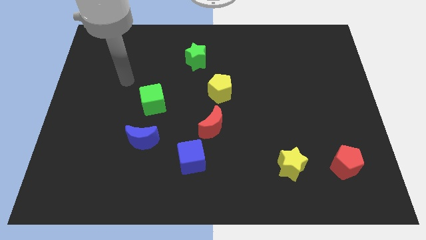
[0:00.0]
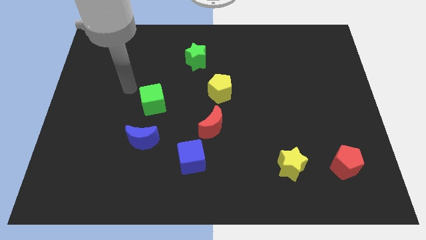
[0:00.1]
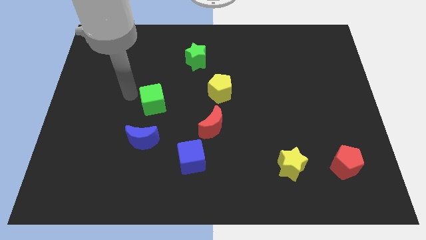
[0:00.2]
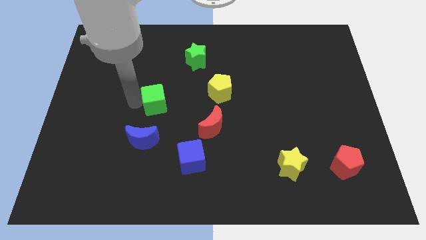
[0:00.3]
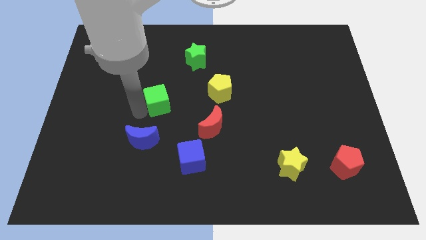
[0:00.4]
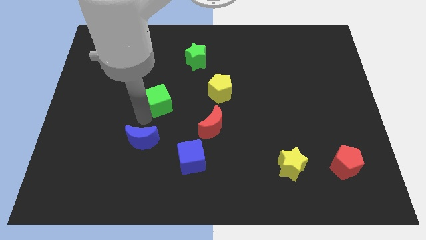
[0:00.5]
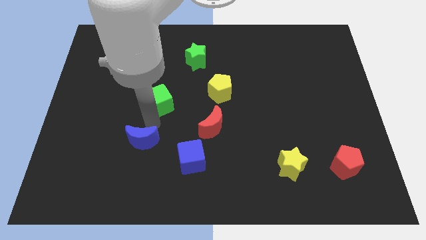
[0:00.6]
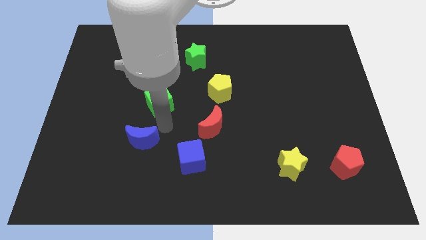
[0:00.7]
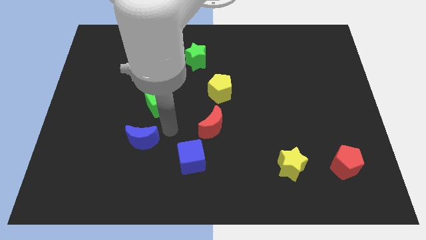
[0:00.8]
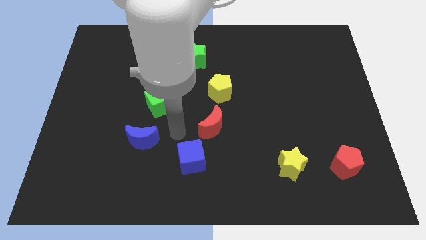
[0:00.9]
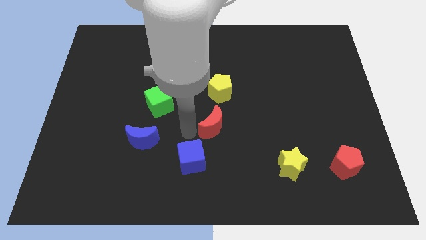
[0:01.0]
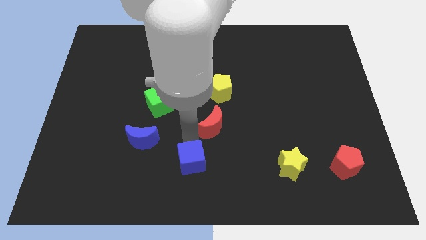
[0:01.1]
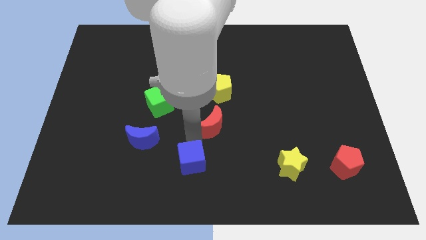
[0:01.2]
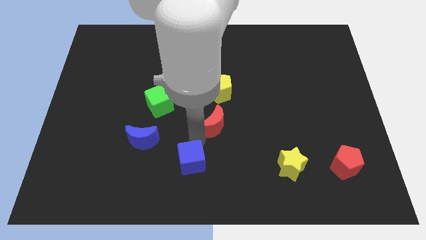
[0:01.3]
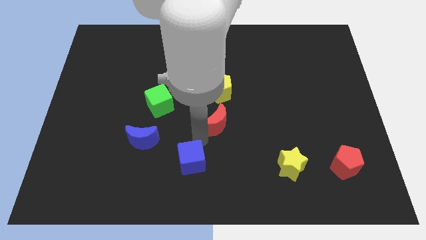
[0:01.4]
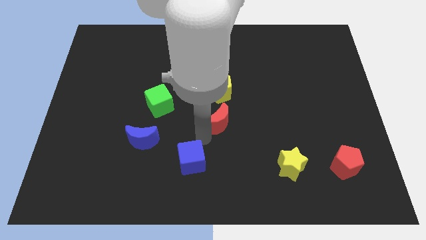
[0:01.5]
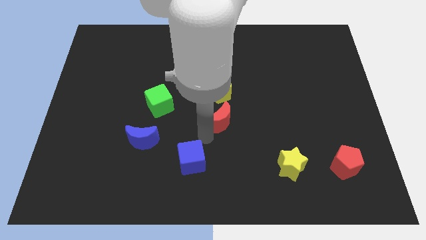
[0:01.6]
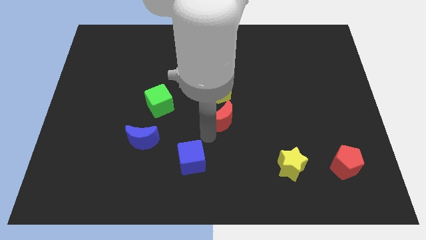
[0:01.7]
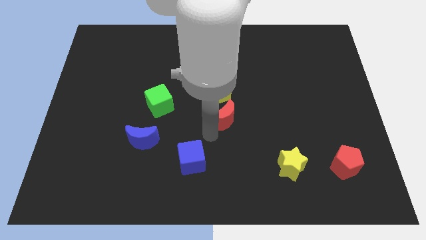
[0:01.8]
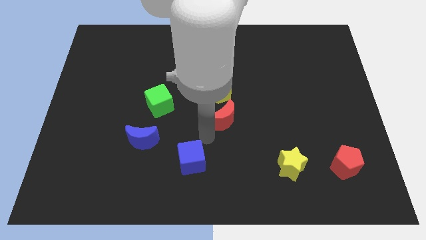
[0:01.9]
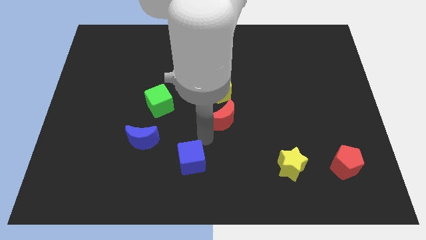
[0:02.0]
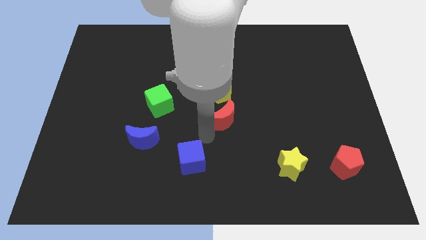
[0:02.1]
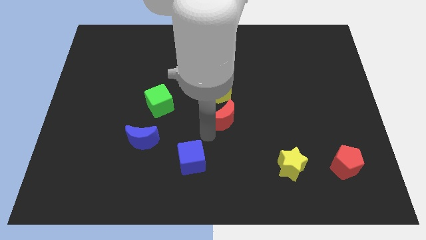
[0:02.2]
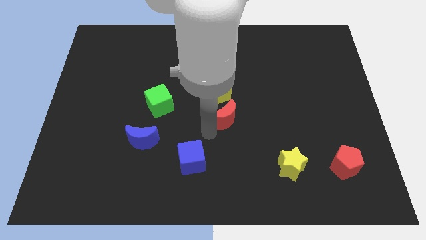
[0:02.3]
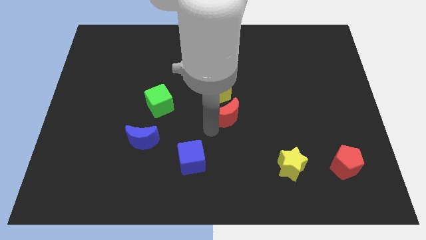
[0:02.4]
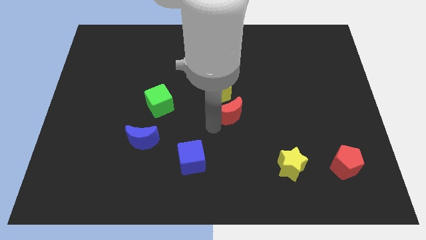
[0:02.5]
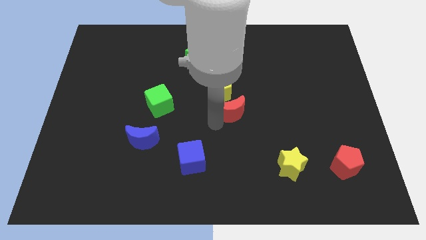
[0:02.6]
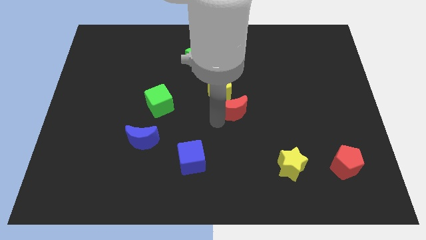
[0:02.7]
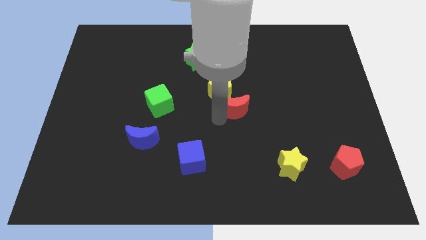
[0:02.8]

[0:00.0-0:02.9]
slide the red moon a little upwards and to the right diagonally

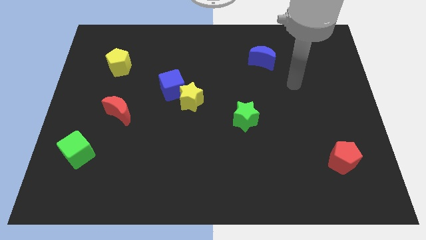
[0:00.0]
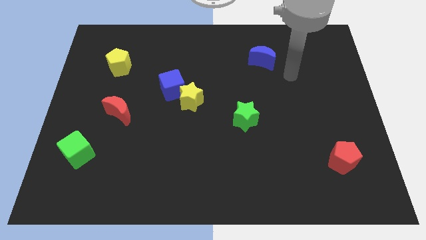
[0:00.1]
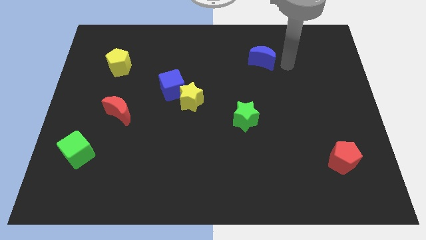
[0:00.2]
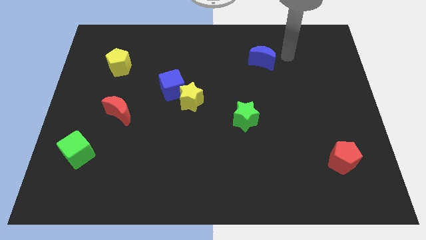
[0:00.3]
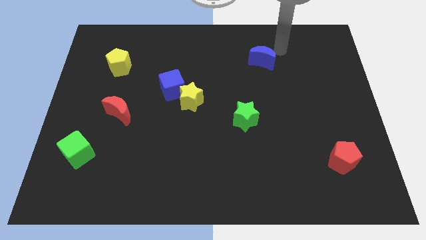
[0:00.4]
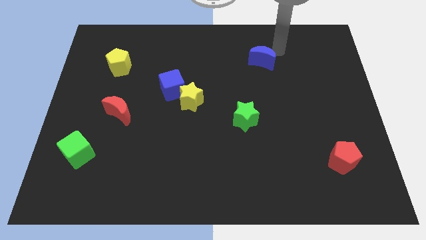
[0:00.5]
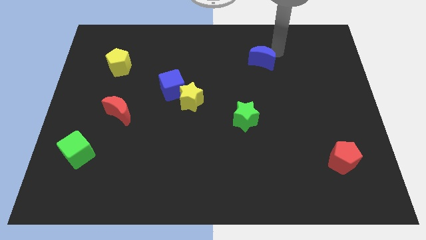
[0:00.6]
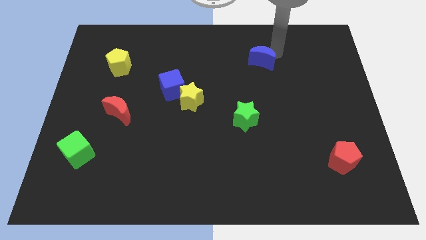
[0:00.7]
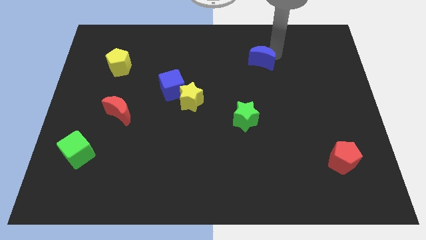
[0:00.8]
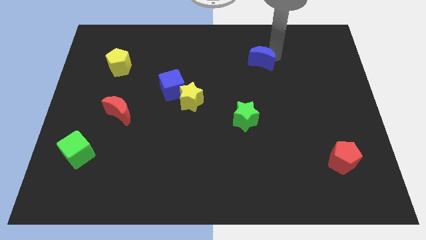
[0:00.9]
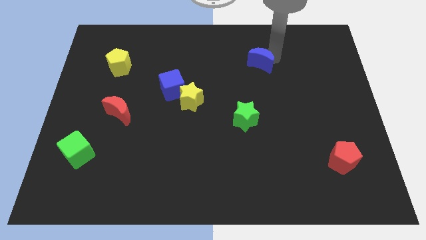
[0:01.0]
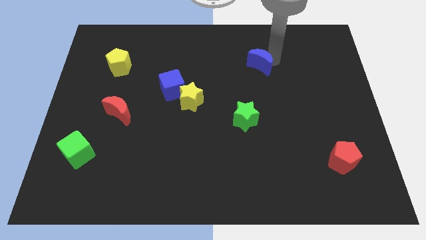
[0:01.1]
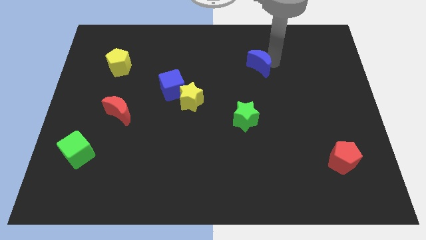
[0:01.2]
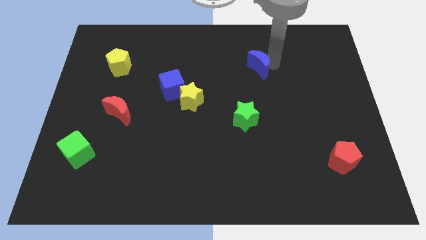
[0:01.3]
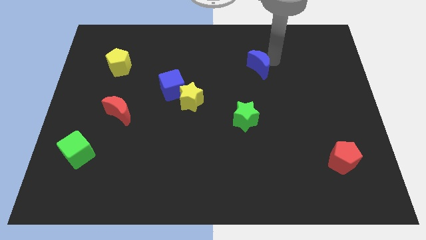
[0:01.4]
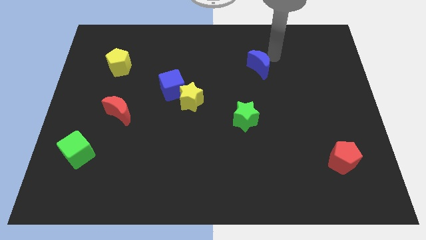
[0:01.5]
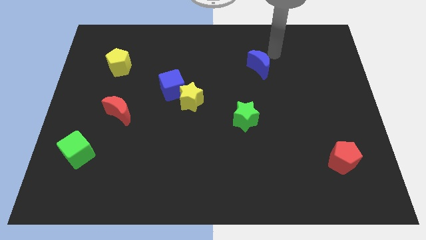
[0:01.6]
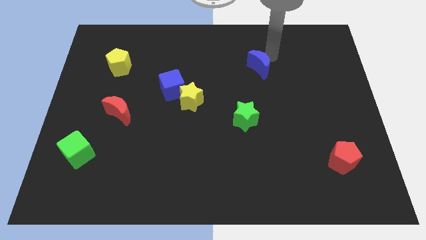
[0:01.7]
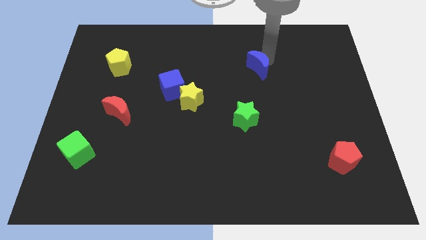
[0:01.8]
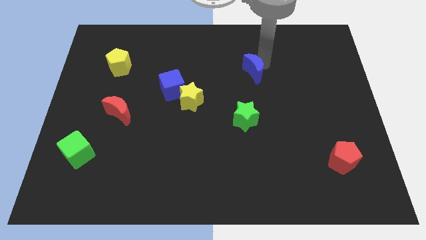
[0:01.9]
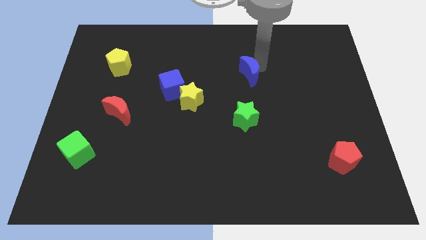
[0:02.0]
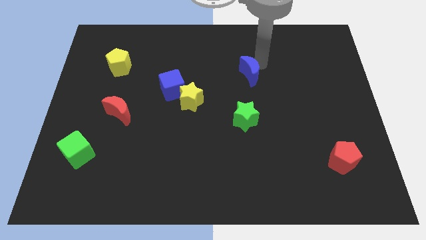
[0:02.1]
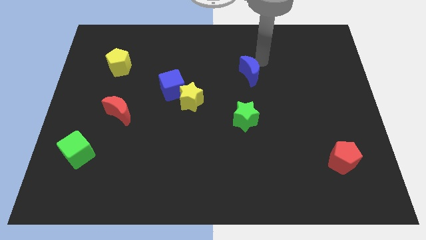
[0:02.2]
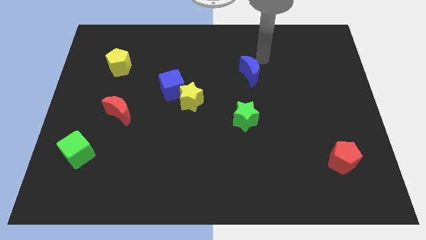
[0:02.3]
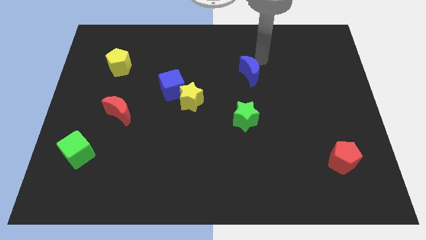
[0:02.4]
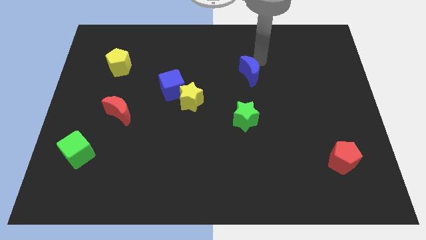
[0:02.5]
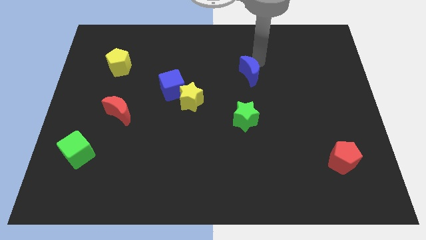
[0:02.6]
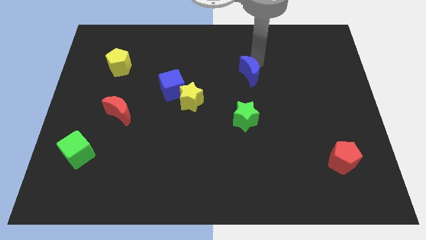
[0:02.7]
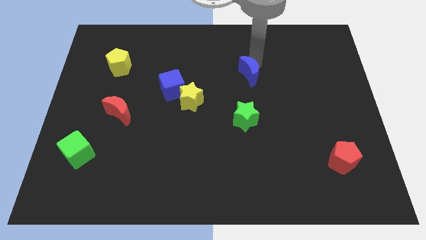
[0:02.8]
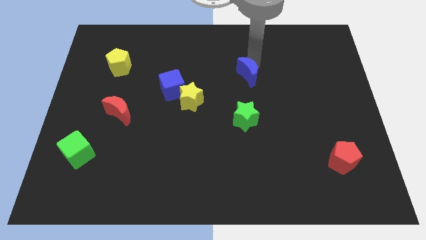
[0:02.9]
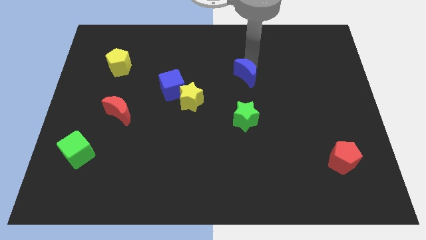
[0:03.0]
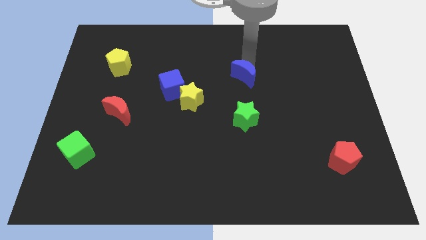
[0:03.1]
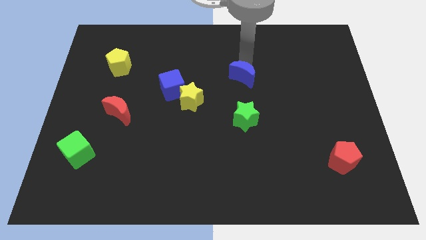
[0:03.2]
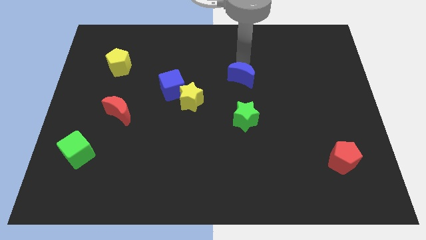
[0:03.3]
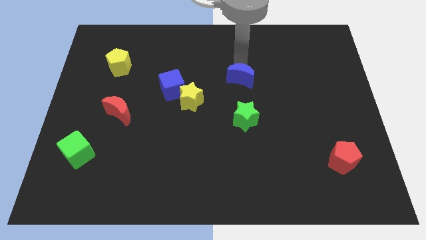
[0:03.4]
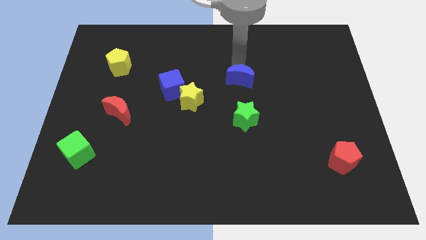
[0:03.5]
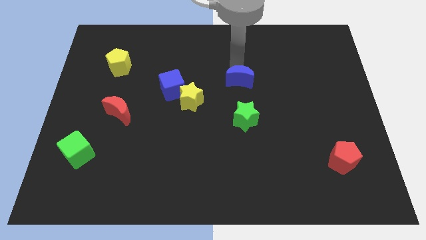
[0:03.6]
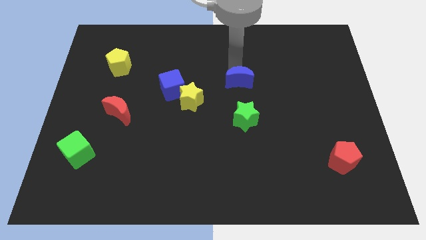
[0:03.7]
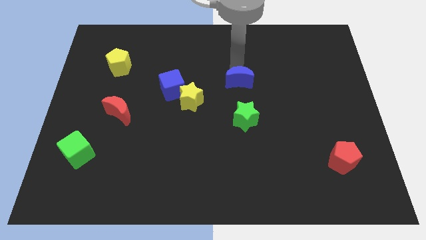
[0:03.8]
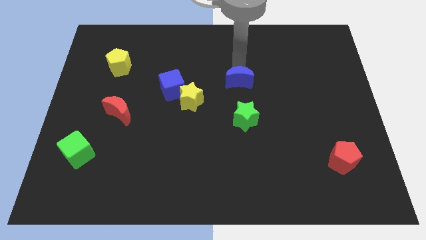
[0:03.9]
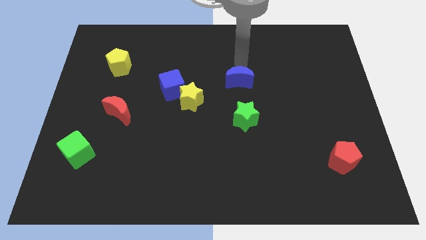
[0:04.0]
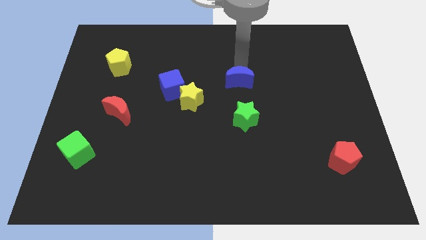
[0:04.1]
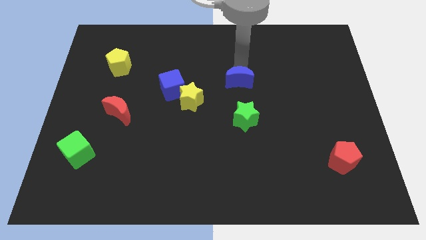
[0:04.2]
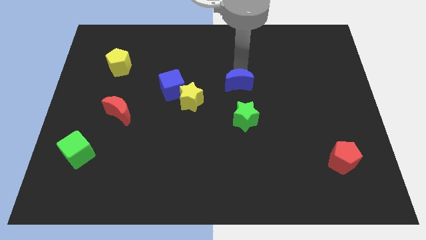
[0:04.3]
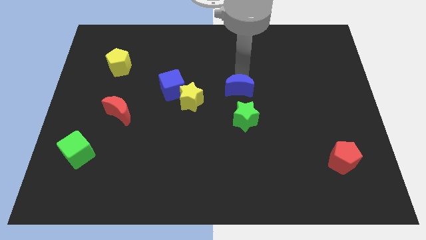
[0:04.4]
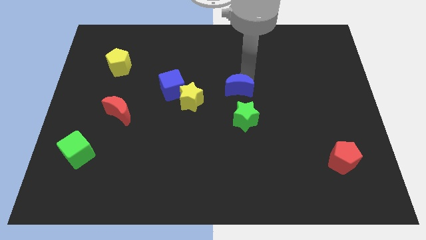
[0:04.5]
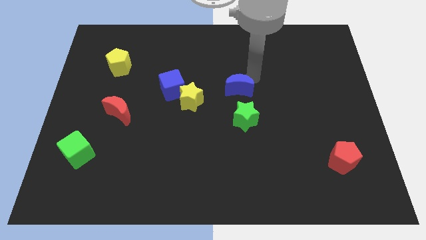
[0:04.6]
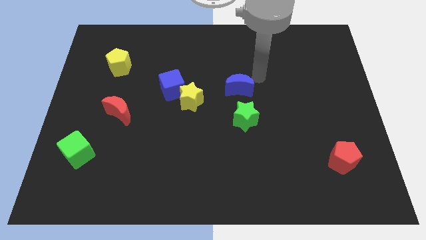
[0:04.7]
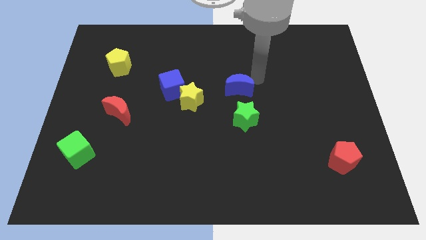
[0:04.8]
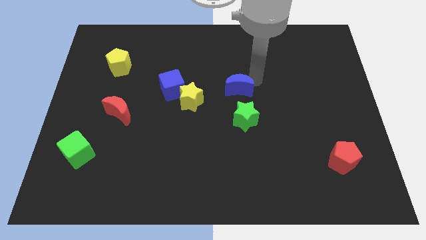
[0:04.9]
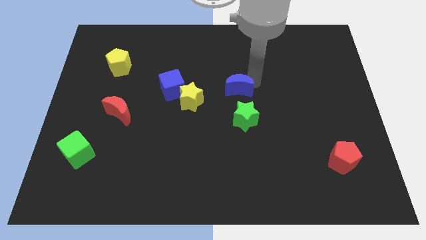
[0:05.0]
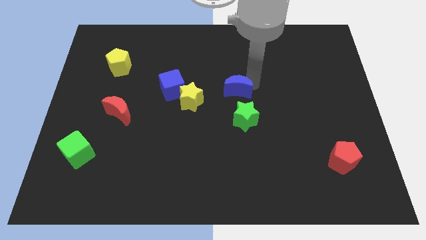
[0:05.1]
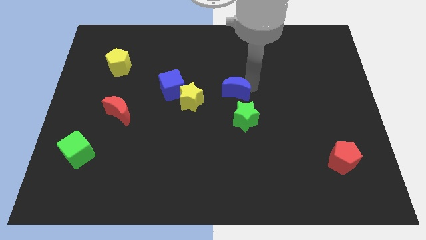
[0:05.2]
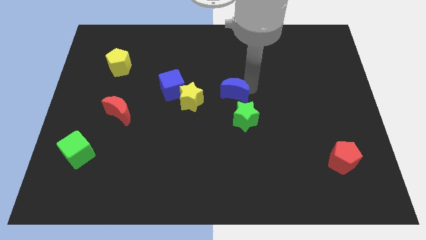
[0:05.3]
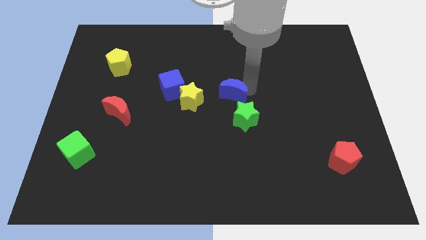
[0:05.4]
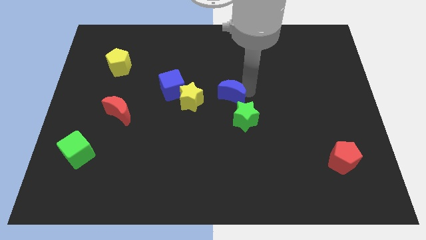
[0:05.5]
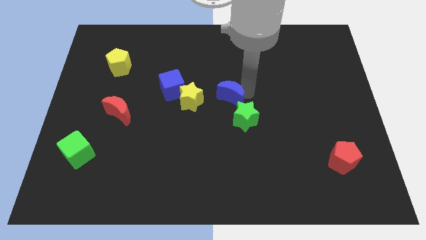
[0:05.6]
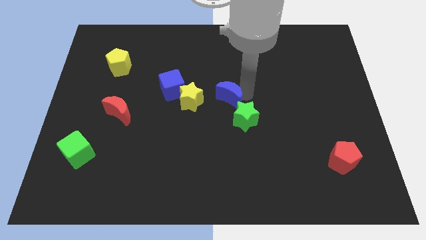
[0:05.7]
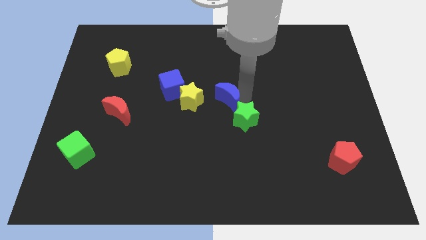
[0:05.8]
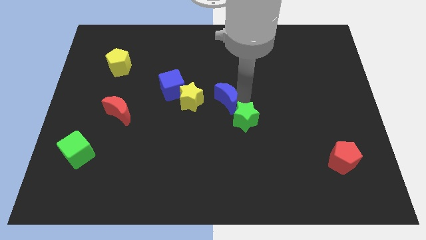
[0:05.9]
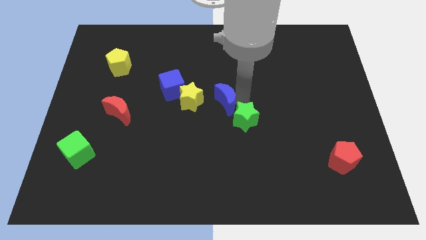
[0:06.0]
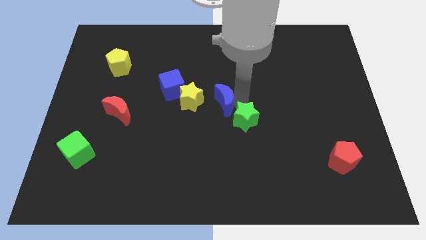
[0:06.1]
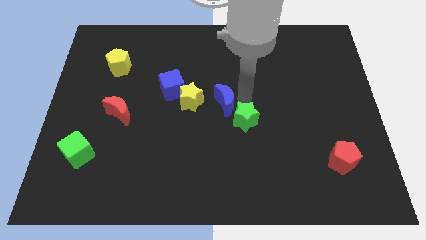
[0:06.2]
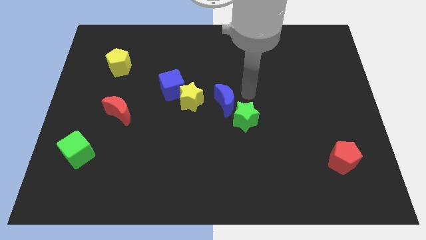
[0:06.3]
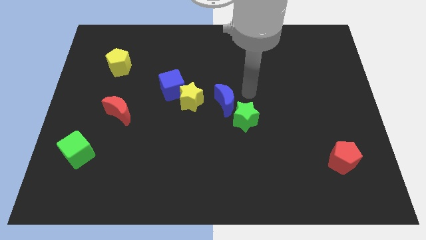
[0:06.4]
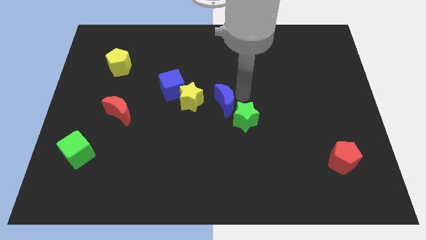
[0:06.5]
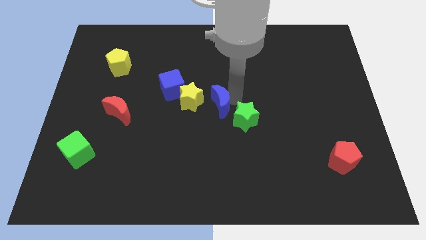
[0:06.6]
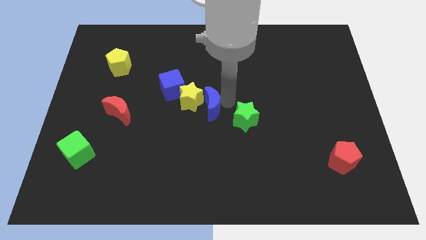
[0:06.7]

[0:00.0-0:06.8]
move the blue moon diagonally downwards and left
